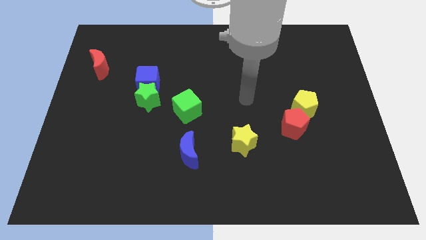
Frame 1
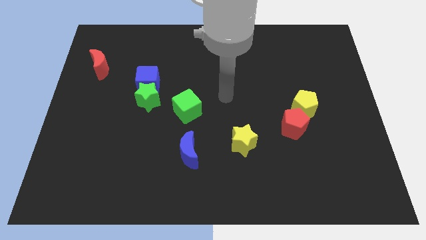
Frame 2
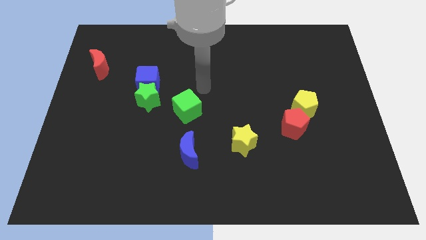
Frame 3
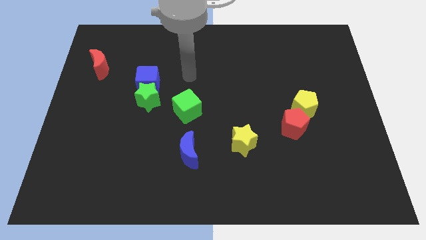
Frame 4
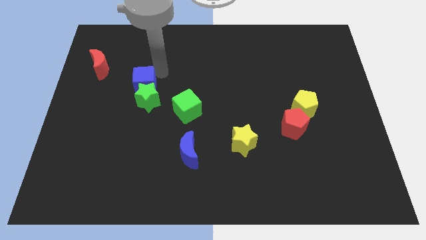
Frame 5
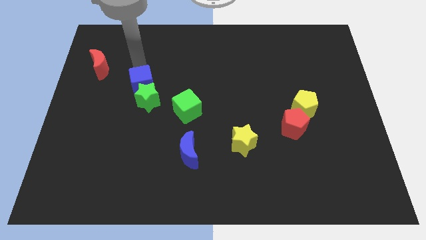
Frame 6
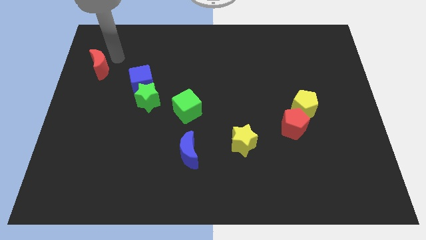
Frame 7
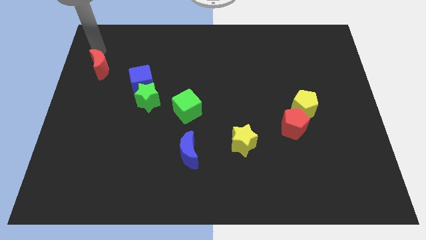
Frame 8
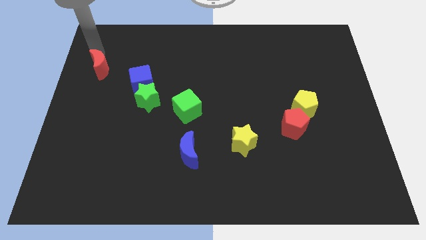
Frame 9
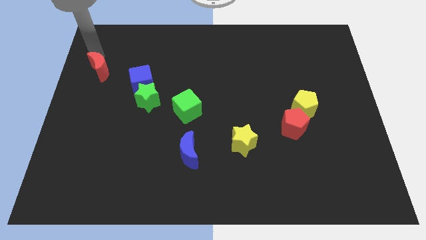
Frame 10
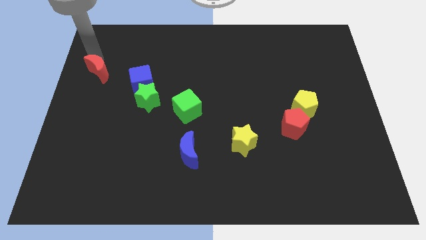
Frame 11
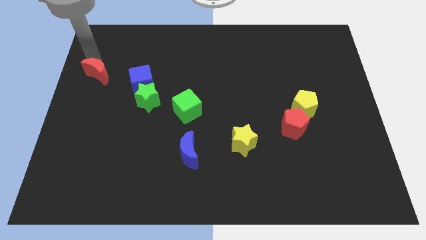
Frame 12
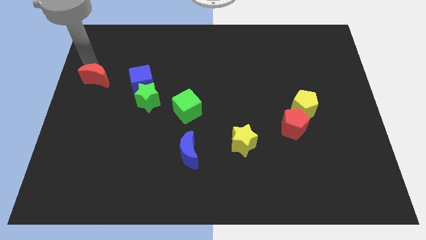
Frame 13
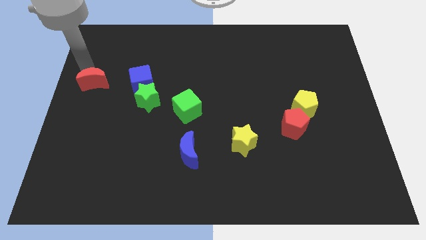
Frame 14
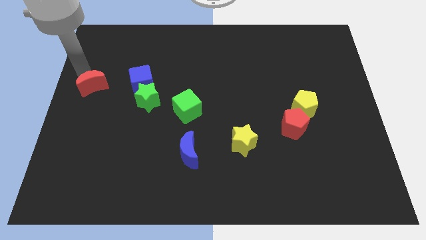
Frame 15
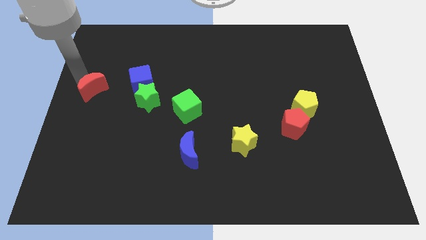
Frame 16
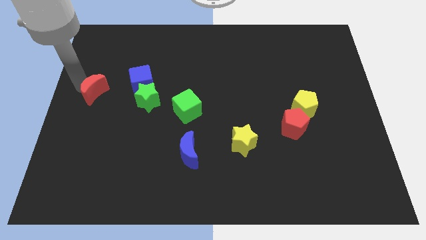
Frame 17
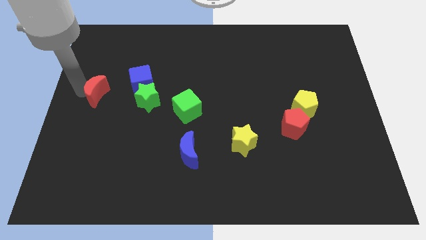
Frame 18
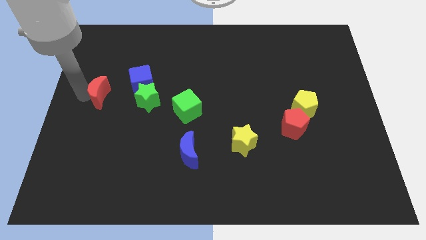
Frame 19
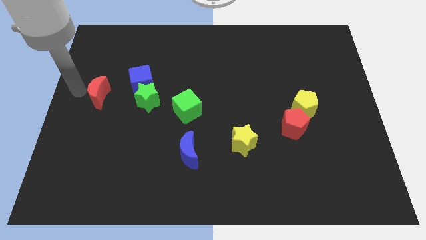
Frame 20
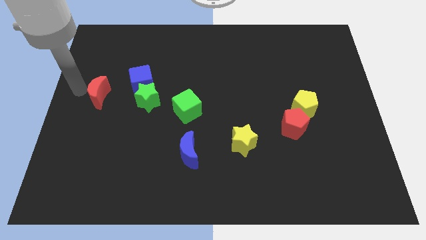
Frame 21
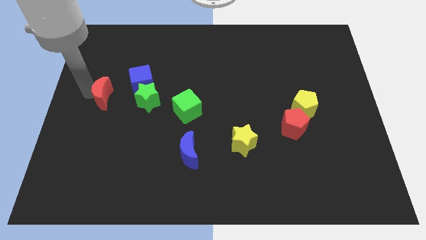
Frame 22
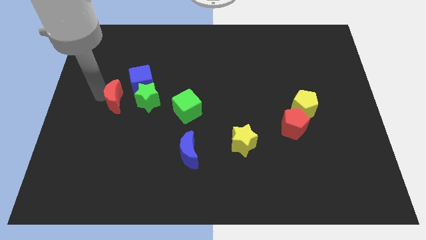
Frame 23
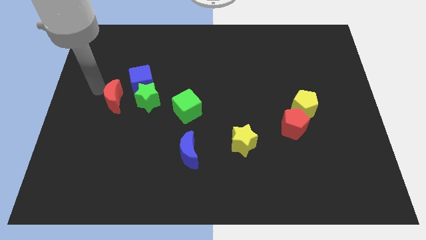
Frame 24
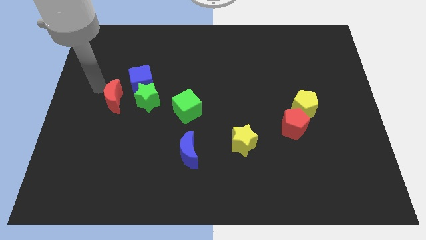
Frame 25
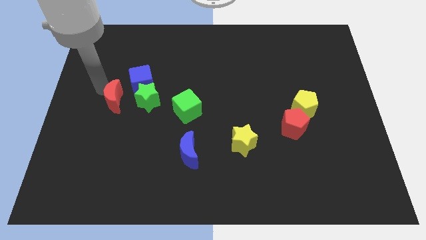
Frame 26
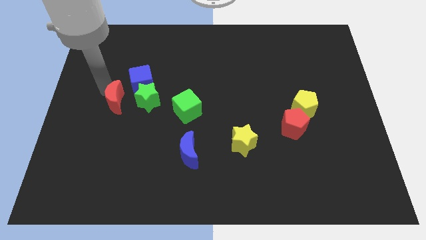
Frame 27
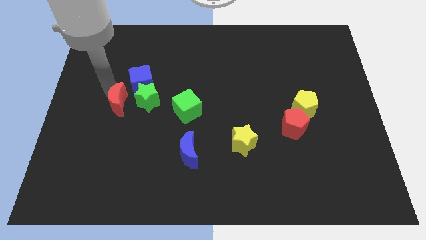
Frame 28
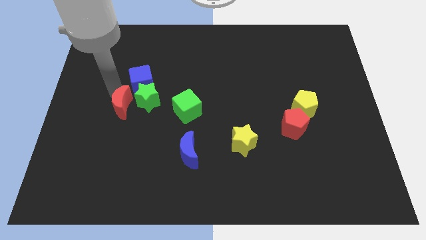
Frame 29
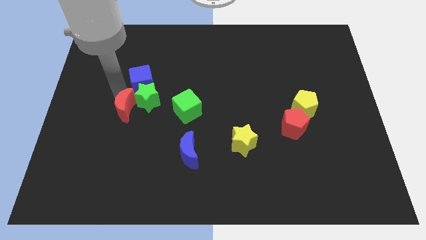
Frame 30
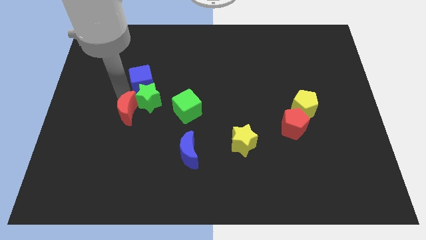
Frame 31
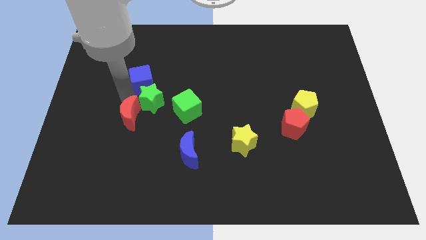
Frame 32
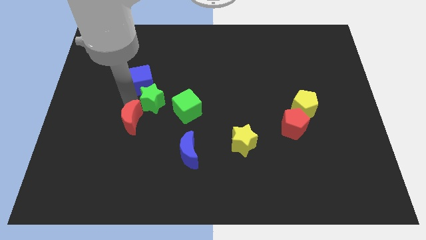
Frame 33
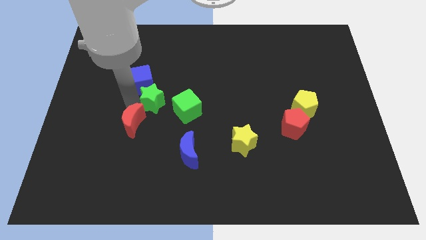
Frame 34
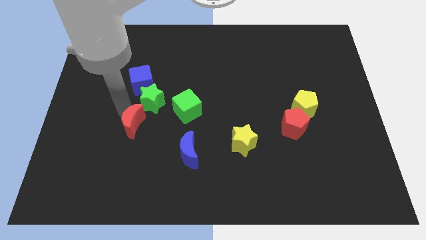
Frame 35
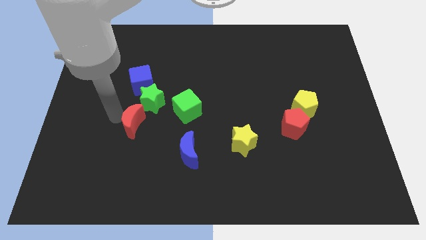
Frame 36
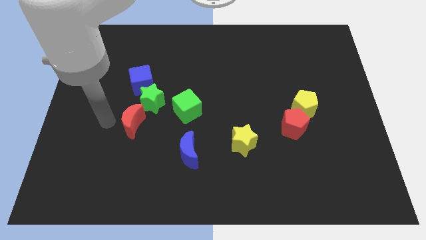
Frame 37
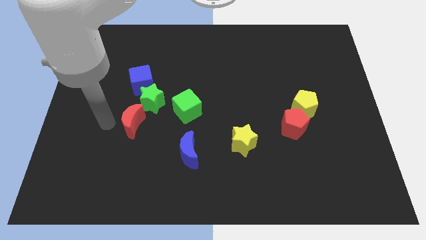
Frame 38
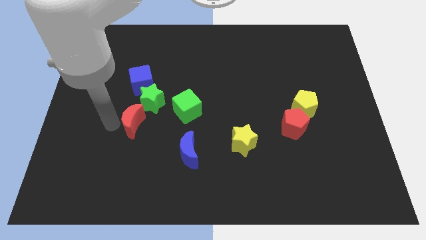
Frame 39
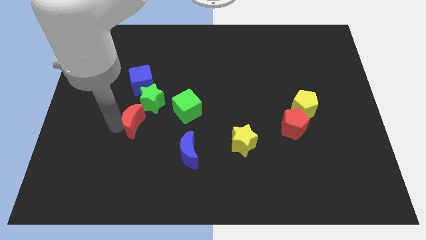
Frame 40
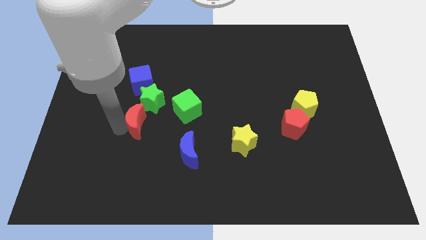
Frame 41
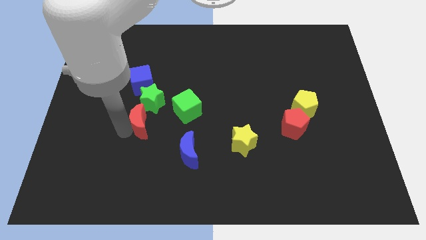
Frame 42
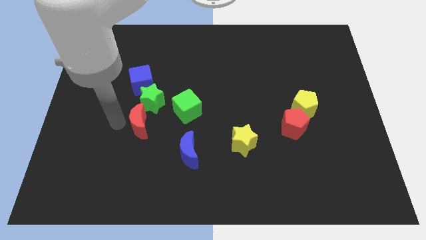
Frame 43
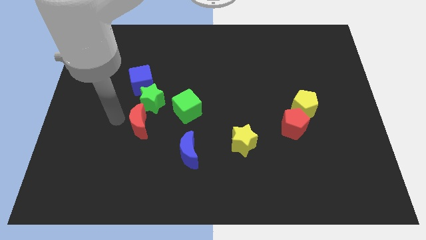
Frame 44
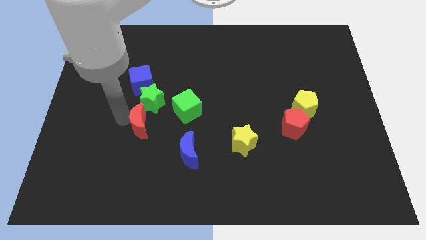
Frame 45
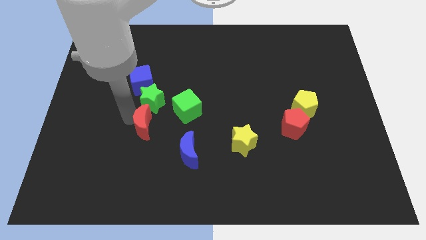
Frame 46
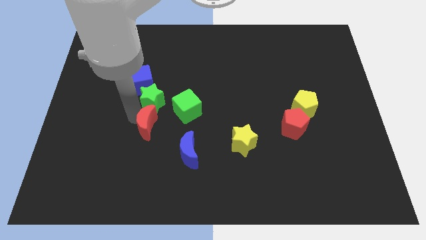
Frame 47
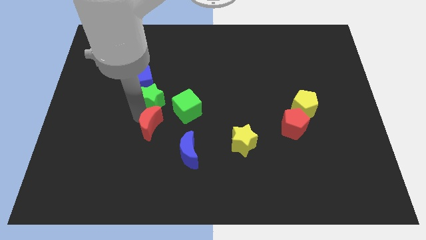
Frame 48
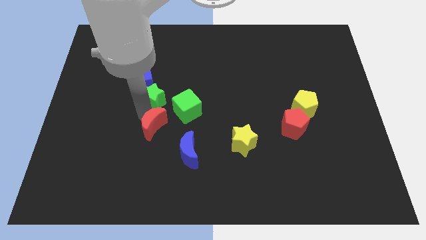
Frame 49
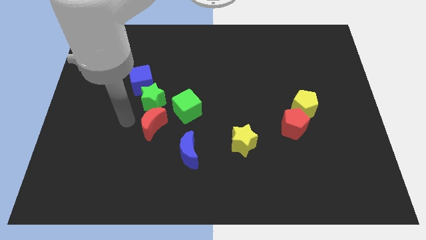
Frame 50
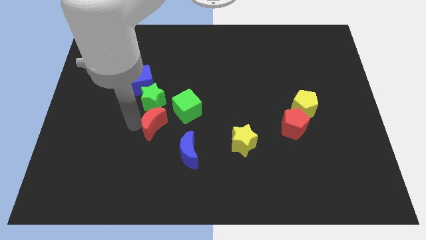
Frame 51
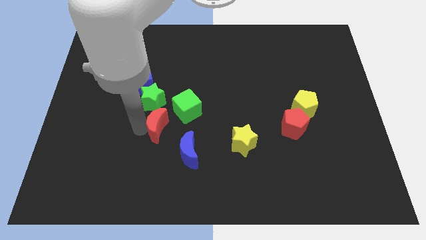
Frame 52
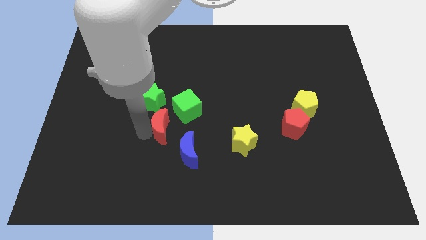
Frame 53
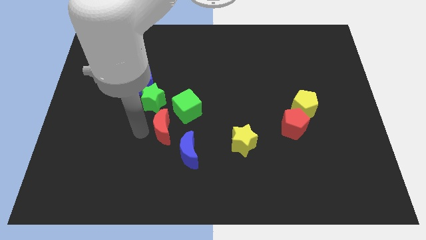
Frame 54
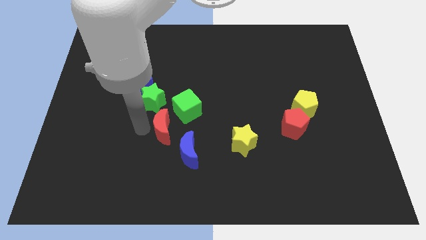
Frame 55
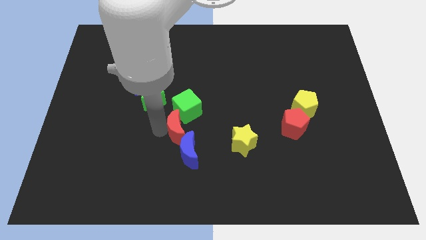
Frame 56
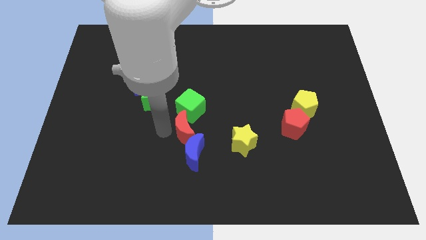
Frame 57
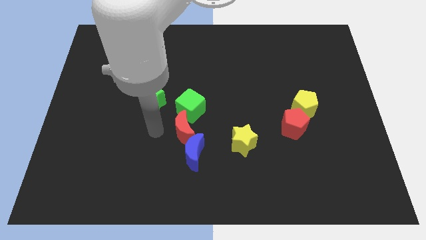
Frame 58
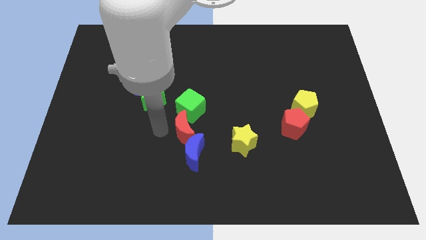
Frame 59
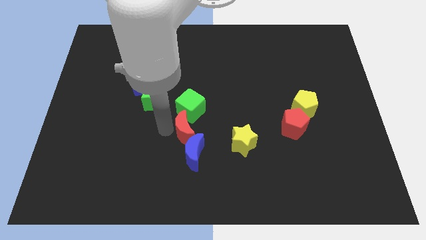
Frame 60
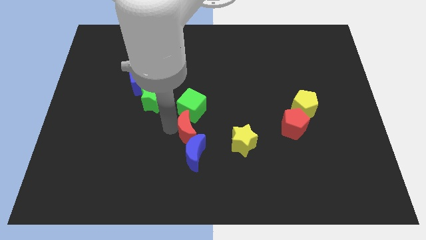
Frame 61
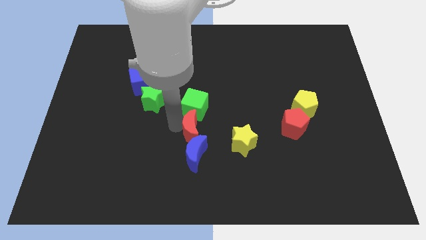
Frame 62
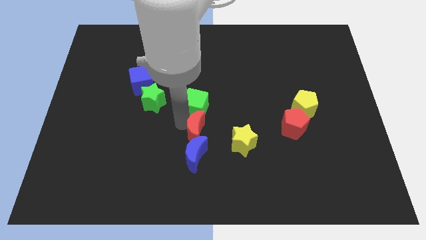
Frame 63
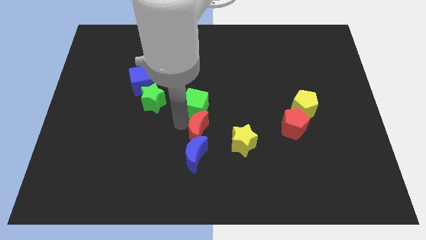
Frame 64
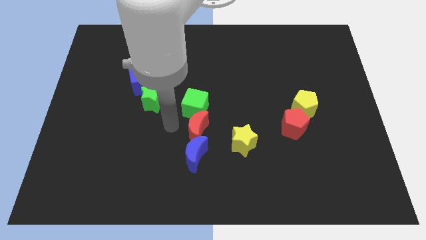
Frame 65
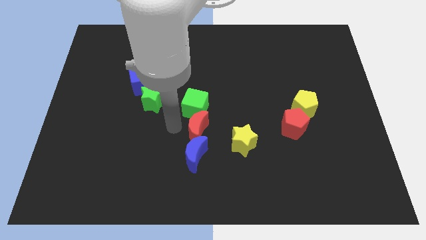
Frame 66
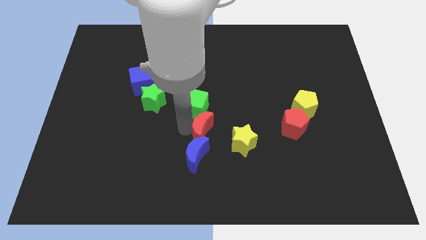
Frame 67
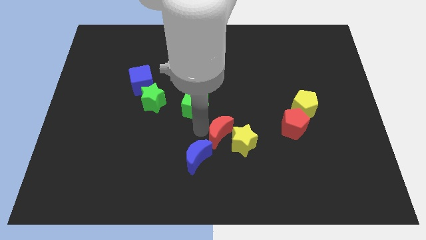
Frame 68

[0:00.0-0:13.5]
slide the red moon towards the yellow star

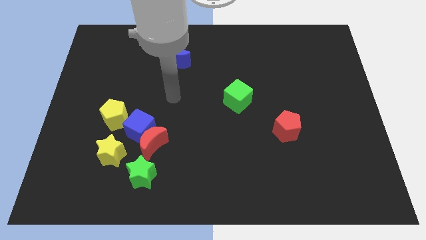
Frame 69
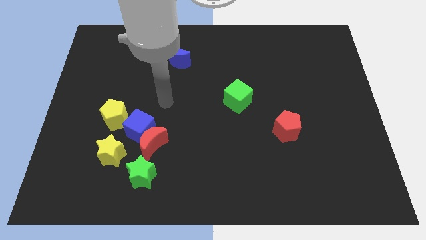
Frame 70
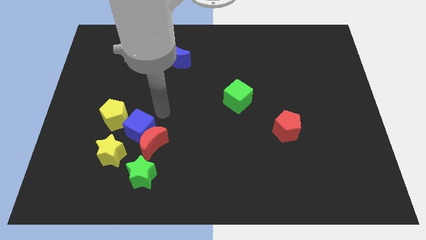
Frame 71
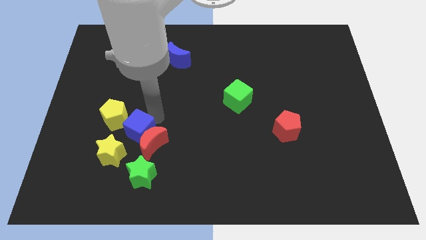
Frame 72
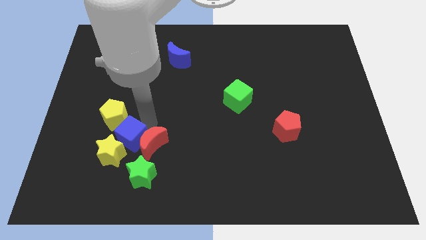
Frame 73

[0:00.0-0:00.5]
slide the blue cube towards the yellow star
